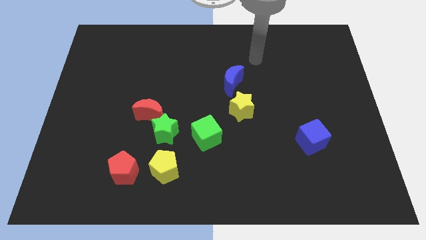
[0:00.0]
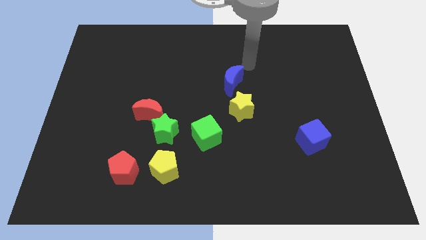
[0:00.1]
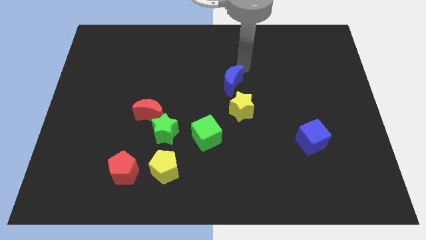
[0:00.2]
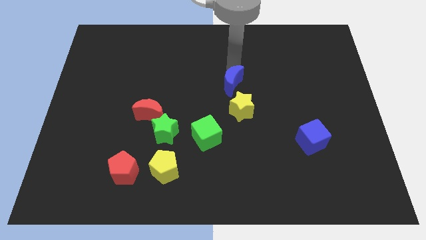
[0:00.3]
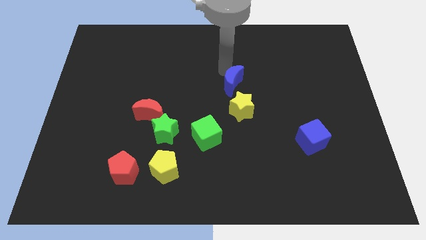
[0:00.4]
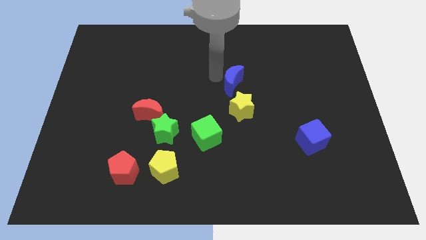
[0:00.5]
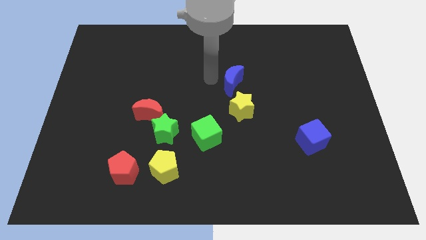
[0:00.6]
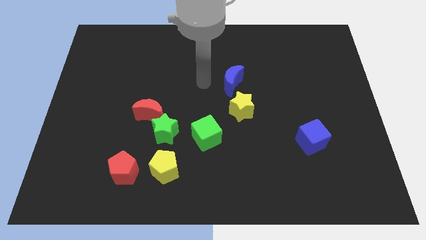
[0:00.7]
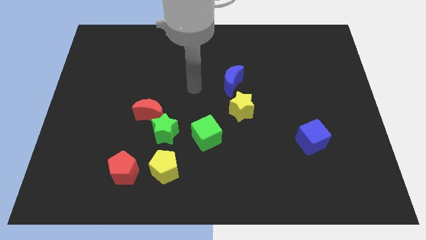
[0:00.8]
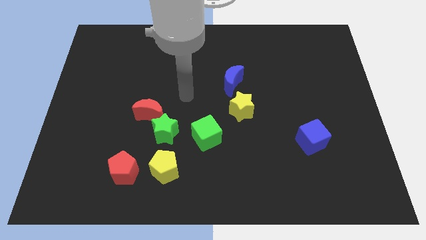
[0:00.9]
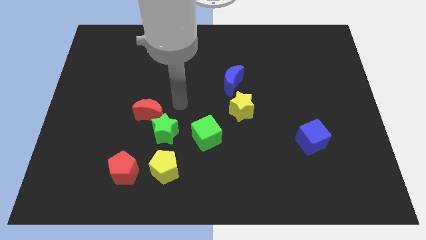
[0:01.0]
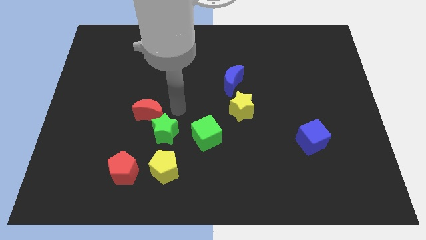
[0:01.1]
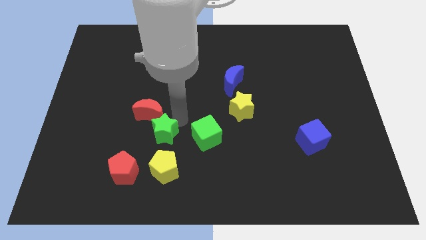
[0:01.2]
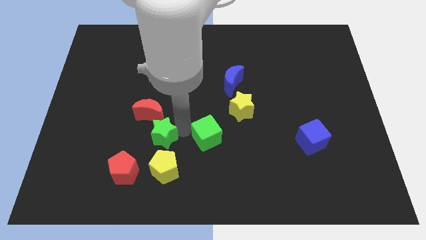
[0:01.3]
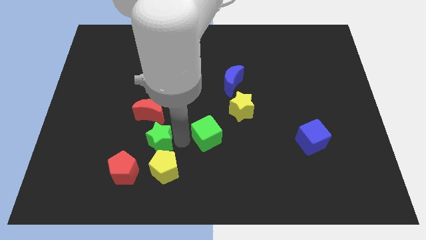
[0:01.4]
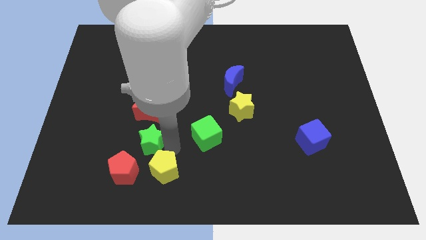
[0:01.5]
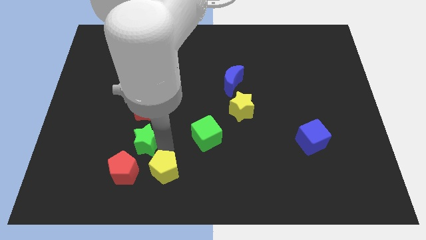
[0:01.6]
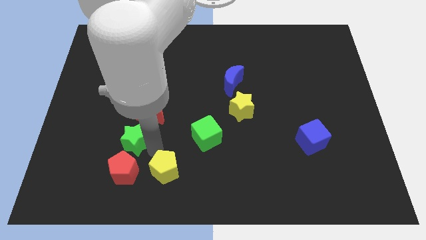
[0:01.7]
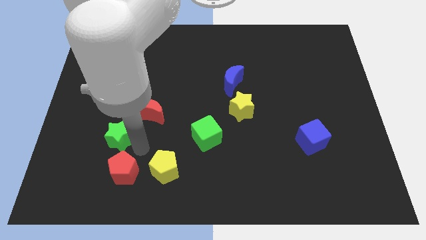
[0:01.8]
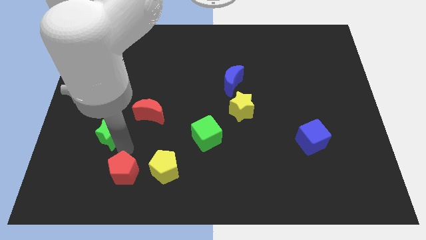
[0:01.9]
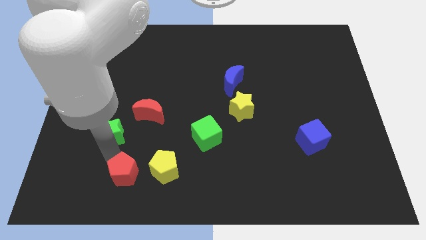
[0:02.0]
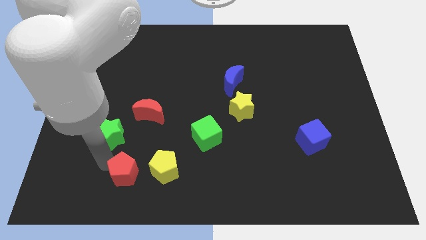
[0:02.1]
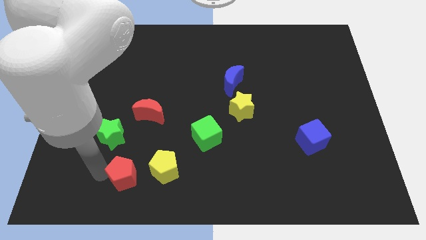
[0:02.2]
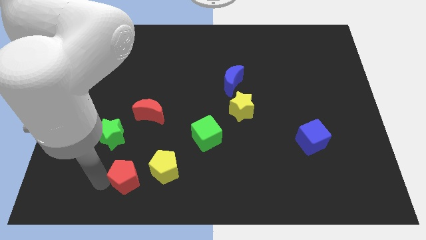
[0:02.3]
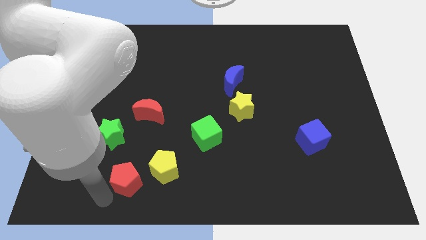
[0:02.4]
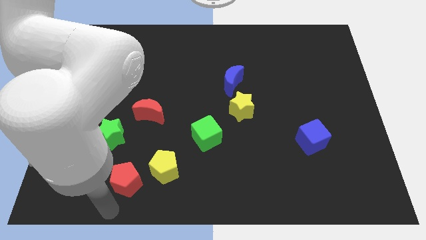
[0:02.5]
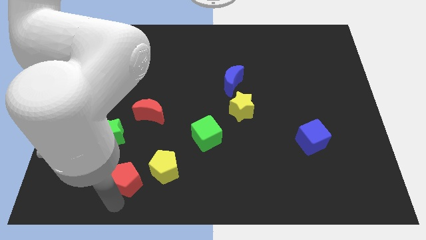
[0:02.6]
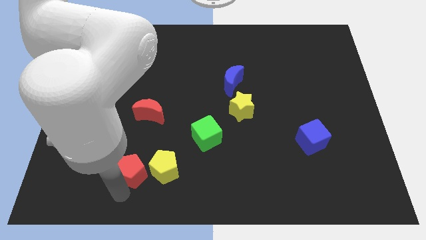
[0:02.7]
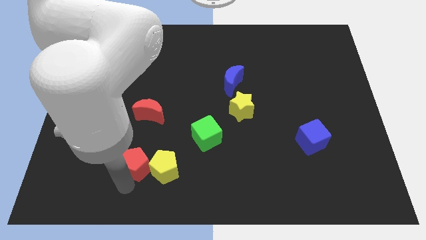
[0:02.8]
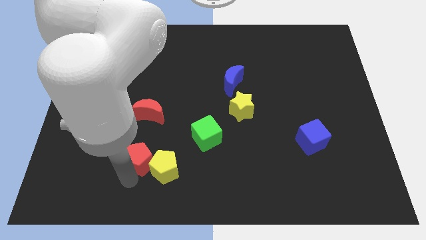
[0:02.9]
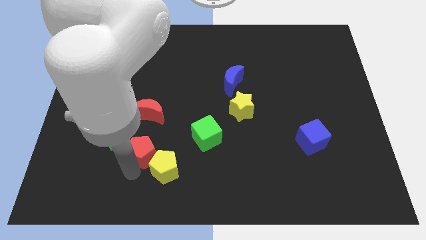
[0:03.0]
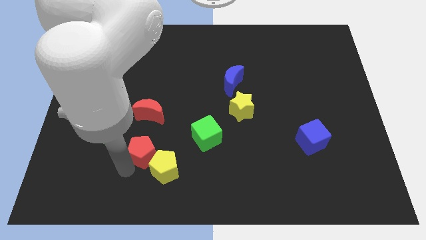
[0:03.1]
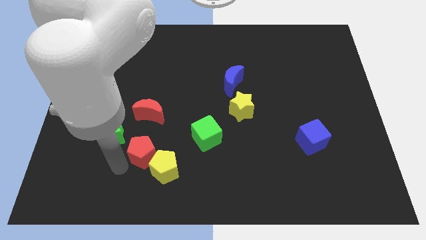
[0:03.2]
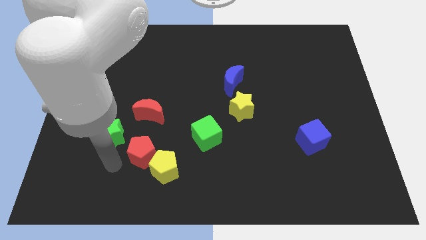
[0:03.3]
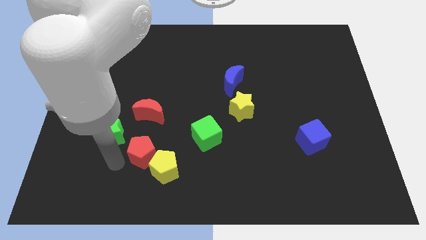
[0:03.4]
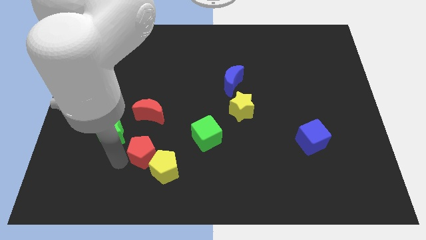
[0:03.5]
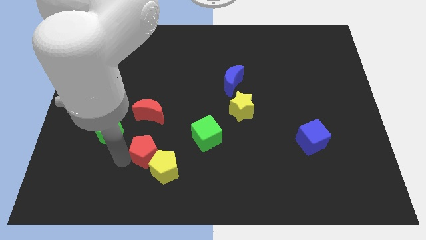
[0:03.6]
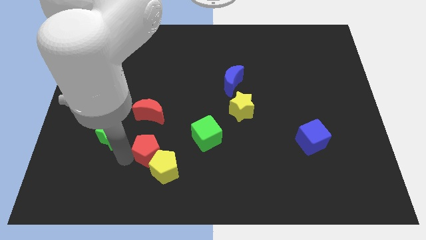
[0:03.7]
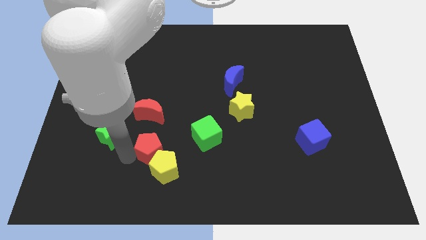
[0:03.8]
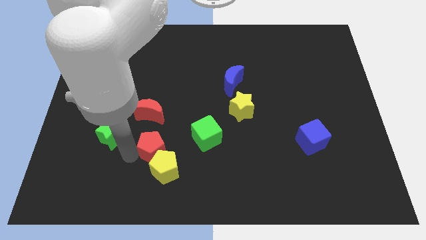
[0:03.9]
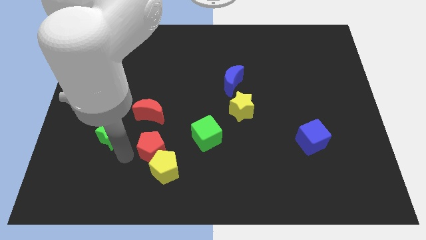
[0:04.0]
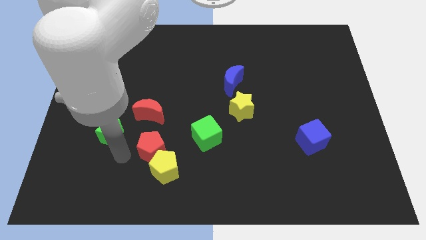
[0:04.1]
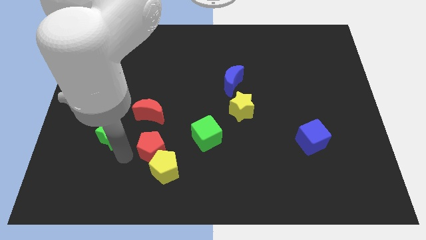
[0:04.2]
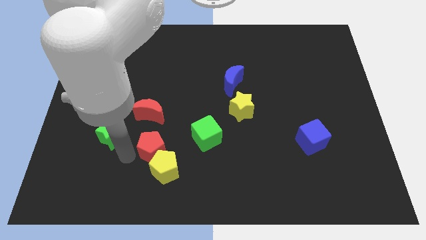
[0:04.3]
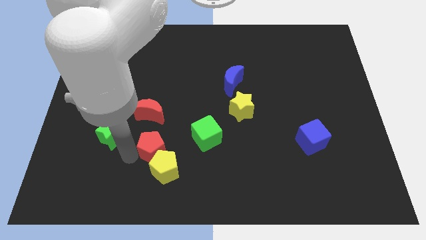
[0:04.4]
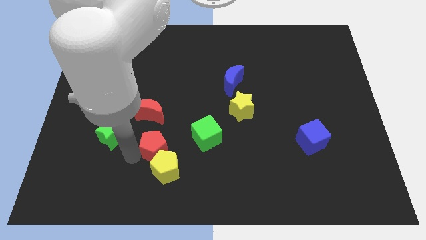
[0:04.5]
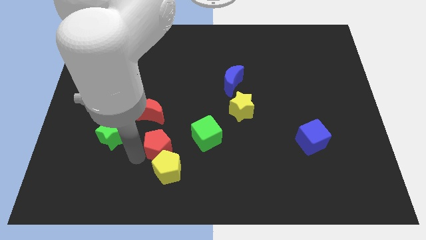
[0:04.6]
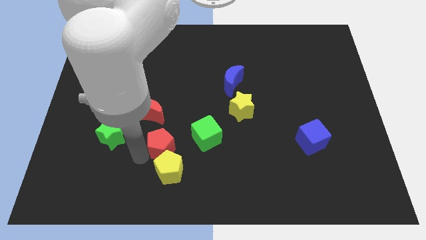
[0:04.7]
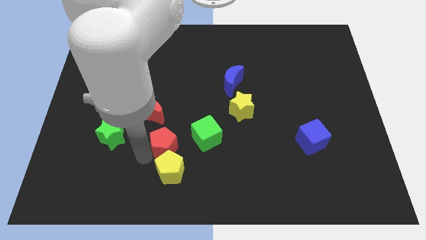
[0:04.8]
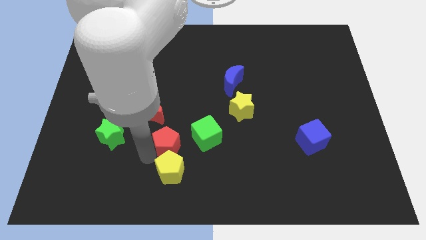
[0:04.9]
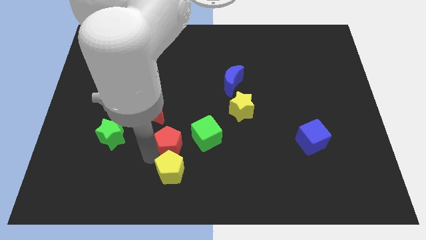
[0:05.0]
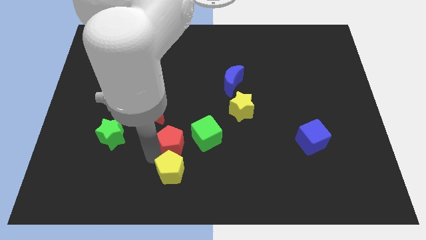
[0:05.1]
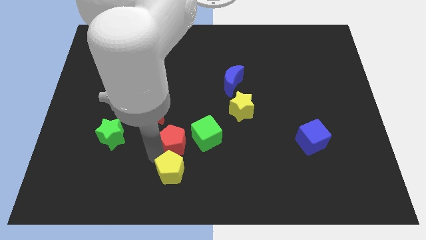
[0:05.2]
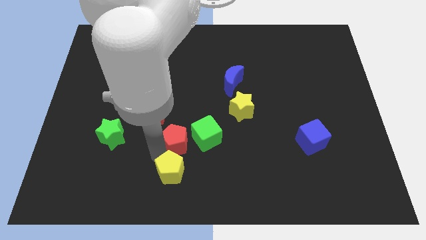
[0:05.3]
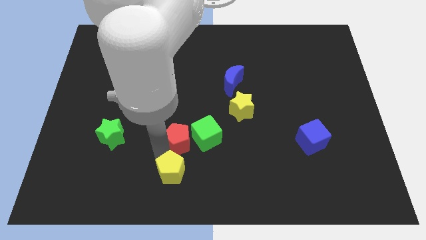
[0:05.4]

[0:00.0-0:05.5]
move the red pentagon towards the green cube

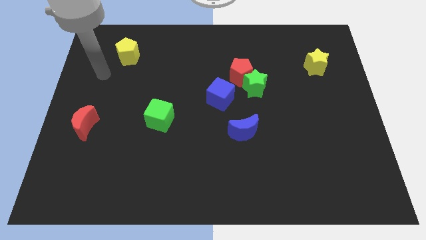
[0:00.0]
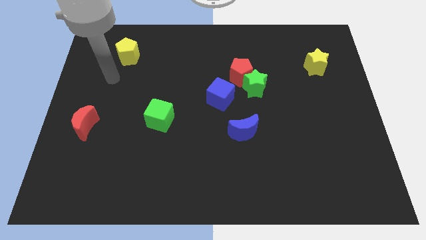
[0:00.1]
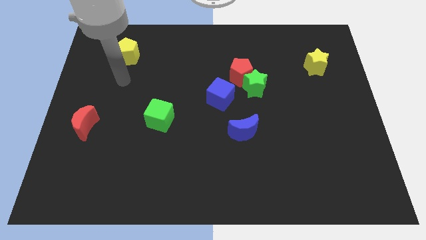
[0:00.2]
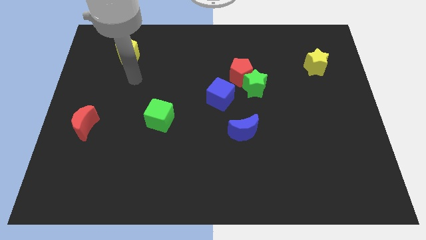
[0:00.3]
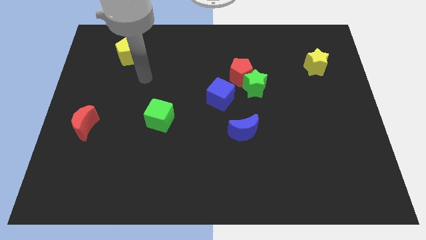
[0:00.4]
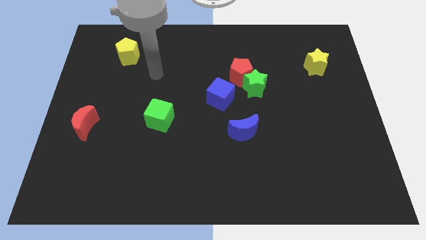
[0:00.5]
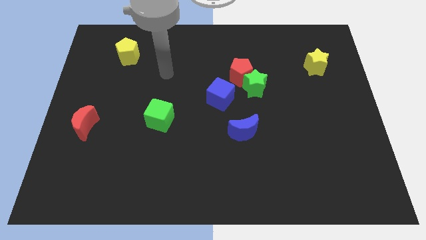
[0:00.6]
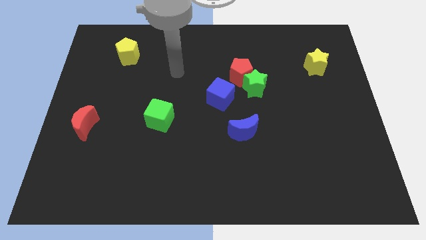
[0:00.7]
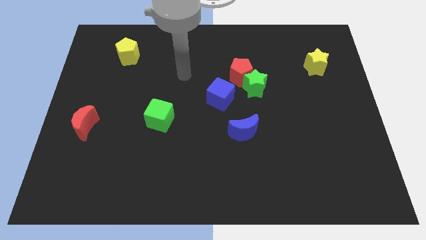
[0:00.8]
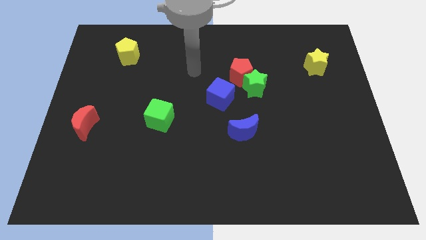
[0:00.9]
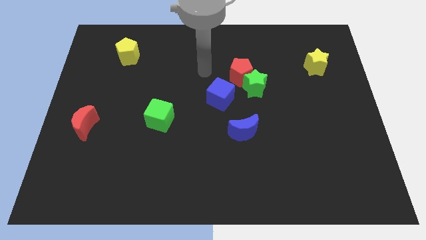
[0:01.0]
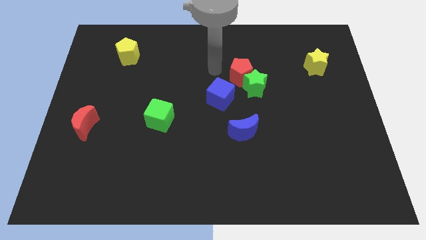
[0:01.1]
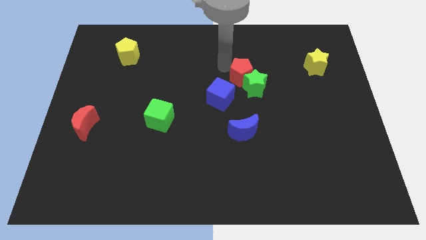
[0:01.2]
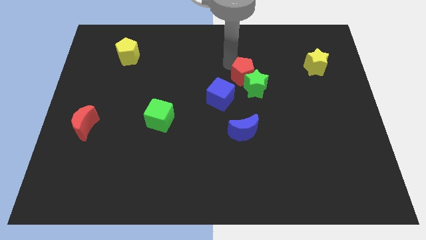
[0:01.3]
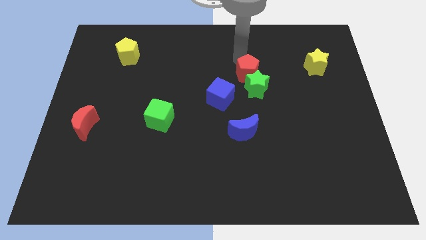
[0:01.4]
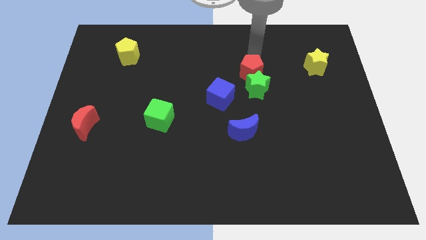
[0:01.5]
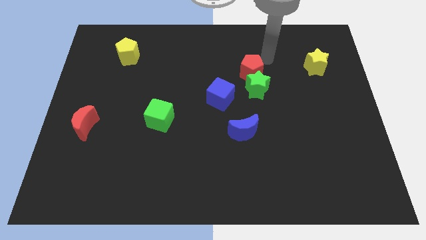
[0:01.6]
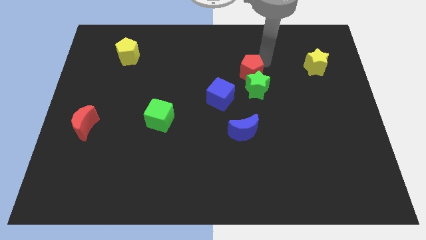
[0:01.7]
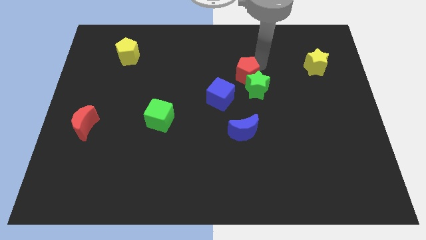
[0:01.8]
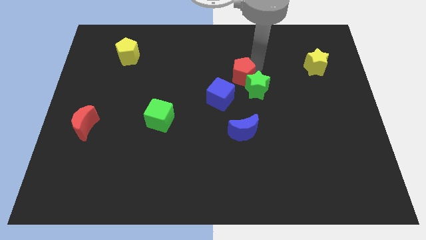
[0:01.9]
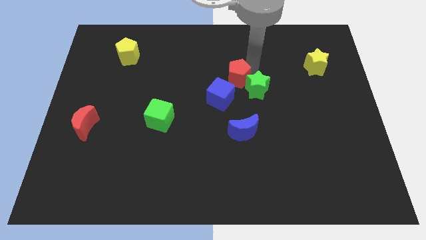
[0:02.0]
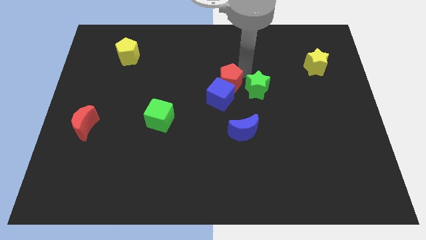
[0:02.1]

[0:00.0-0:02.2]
put the red pentagon towards the blue cube

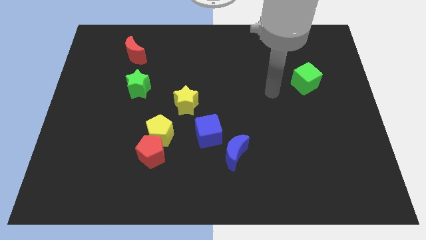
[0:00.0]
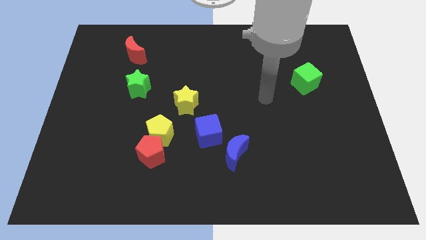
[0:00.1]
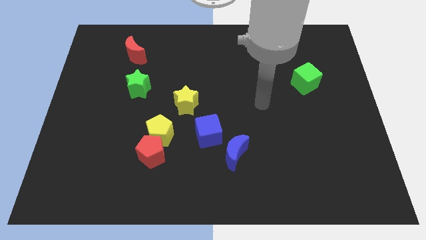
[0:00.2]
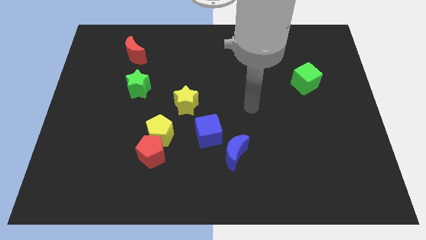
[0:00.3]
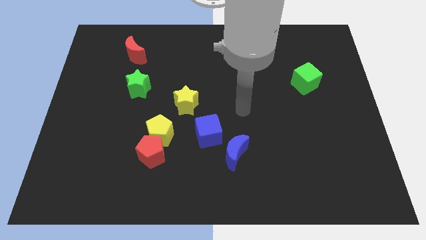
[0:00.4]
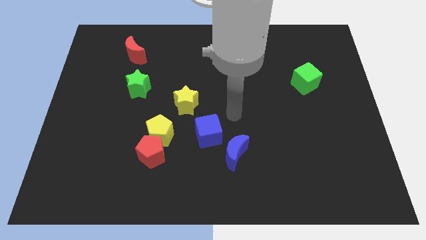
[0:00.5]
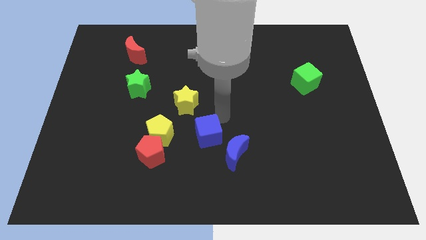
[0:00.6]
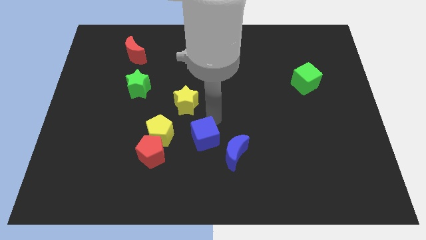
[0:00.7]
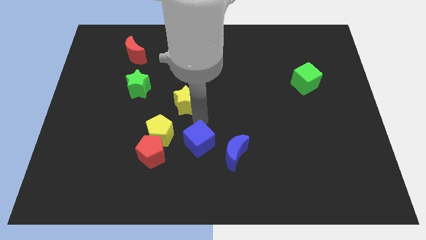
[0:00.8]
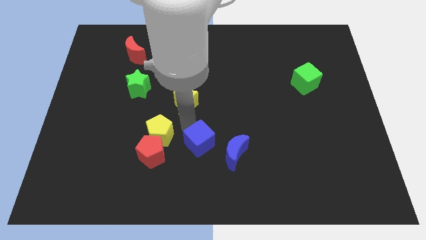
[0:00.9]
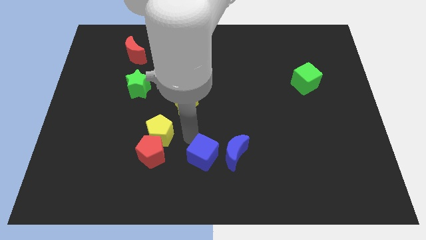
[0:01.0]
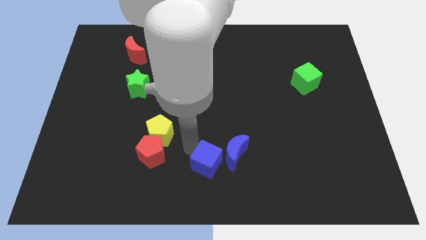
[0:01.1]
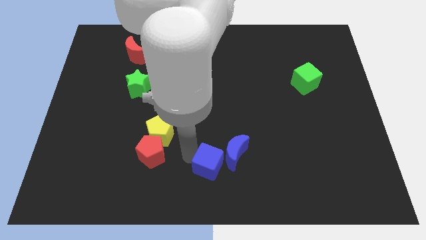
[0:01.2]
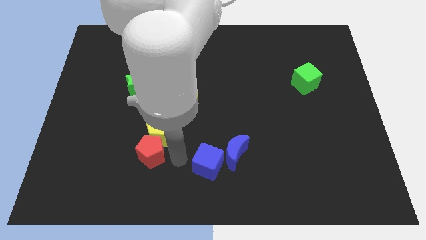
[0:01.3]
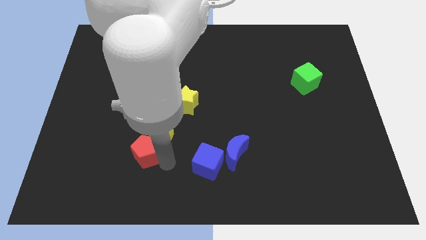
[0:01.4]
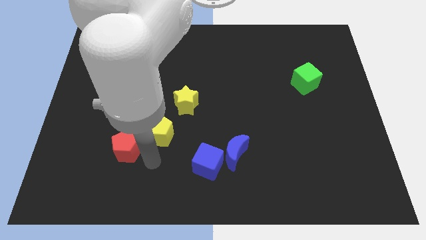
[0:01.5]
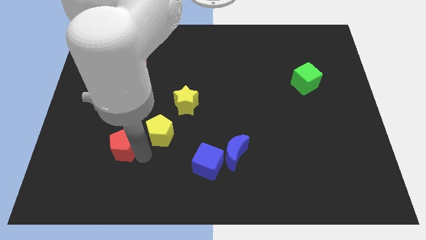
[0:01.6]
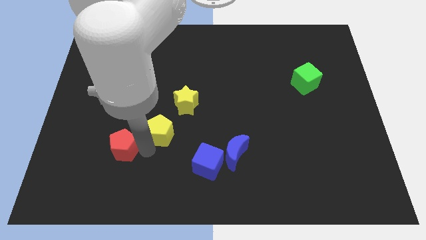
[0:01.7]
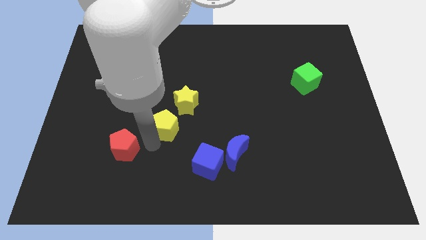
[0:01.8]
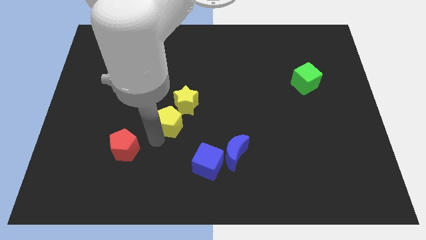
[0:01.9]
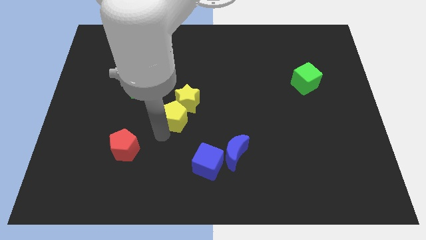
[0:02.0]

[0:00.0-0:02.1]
move the yellow pentagon close to the yellow star
